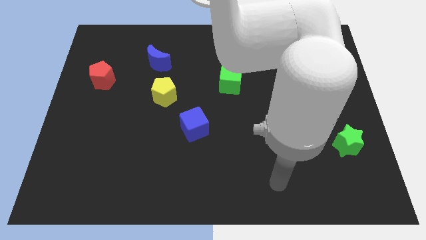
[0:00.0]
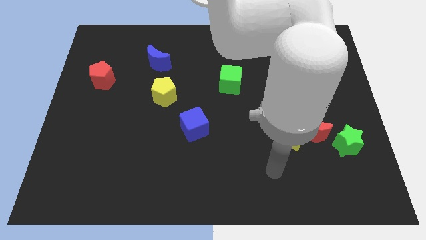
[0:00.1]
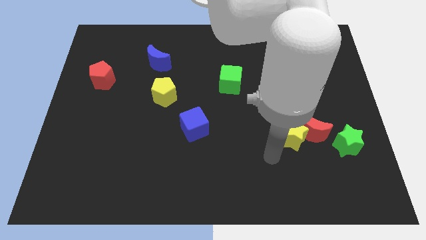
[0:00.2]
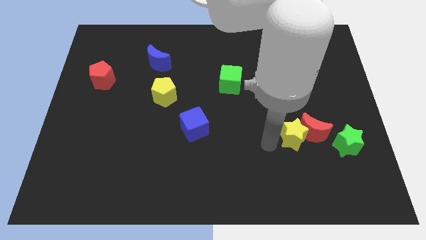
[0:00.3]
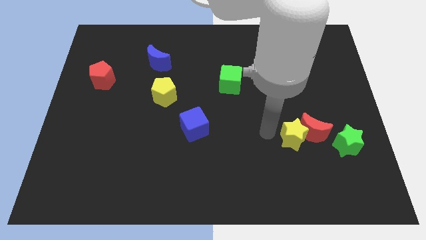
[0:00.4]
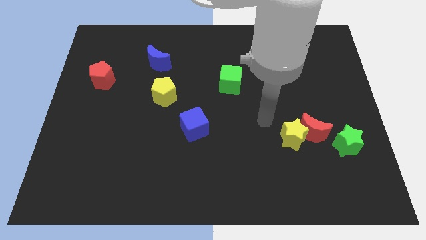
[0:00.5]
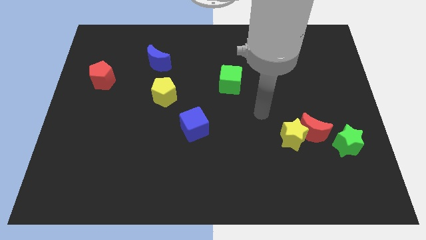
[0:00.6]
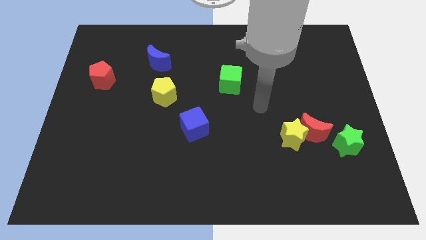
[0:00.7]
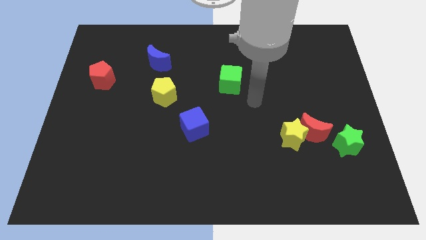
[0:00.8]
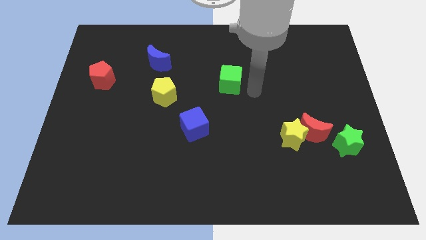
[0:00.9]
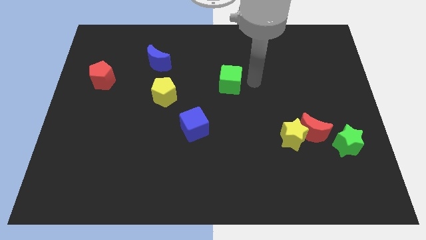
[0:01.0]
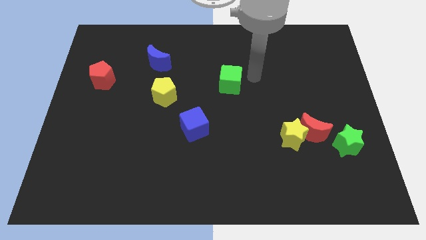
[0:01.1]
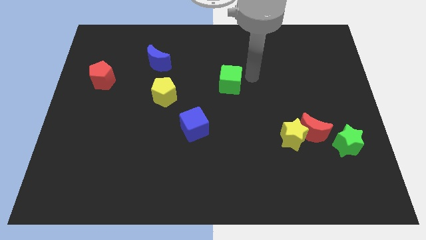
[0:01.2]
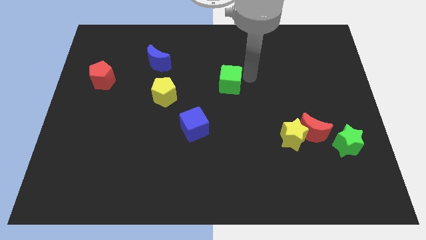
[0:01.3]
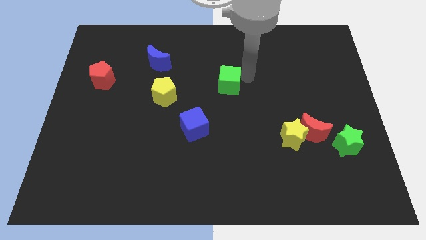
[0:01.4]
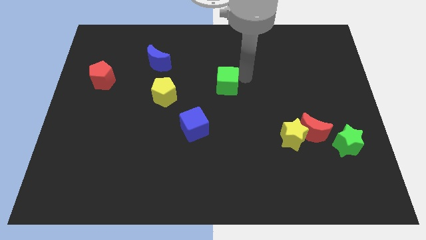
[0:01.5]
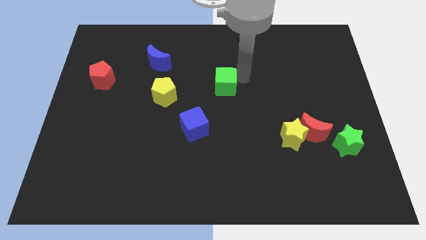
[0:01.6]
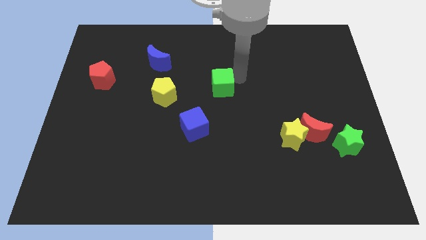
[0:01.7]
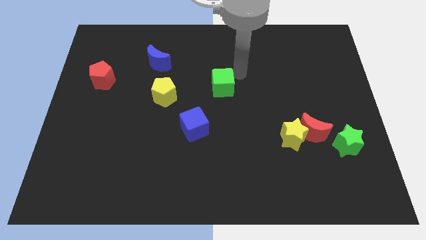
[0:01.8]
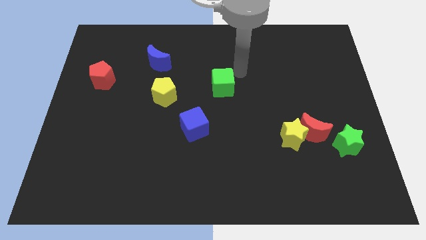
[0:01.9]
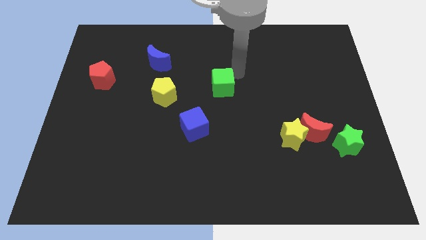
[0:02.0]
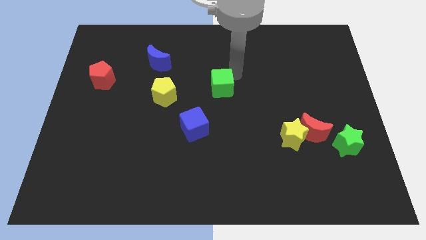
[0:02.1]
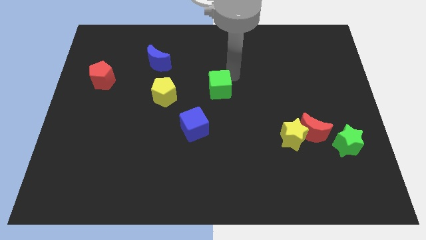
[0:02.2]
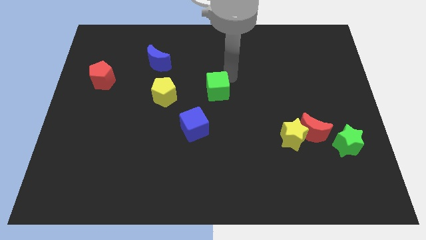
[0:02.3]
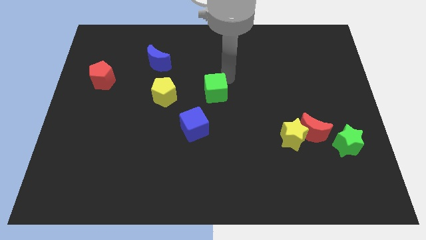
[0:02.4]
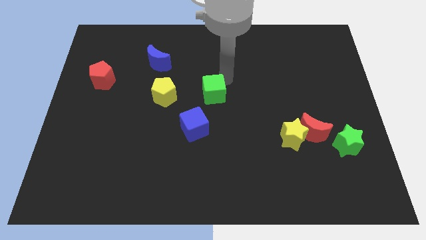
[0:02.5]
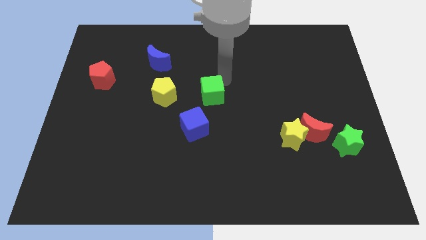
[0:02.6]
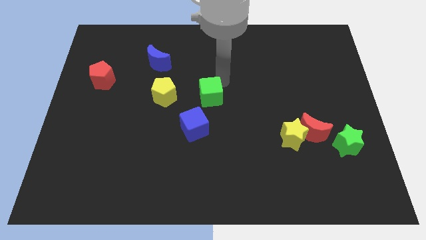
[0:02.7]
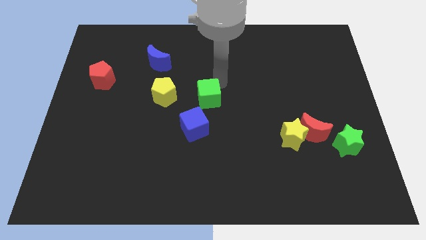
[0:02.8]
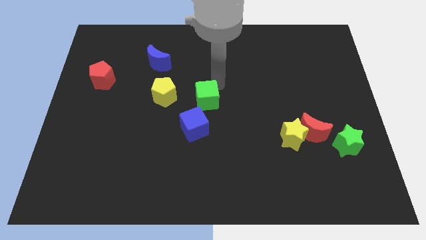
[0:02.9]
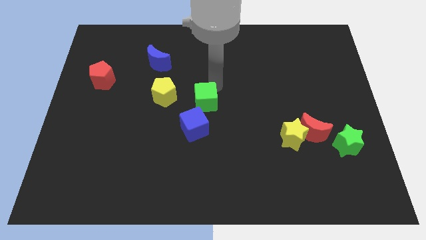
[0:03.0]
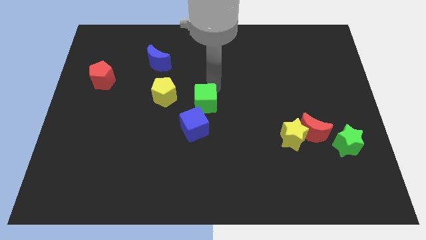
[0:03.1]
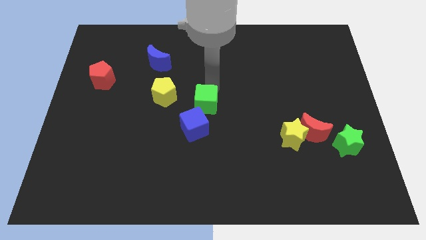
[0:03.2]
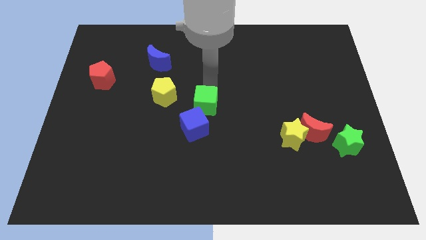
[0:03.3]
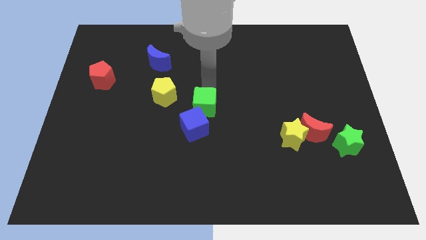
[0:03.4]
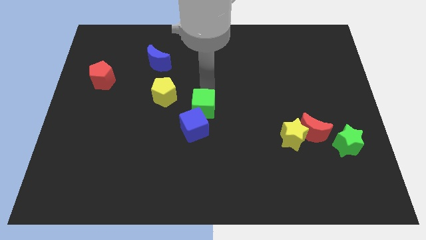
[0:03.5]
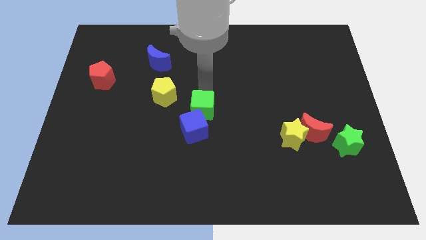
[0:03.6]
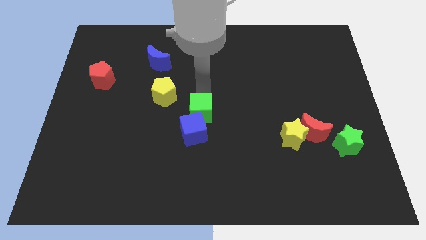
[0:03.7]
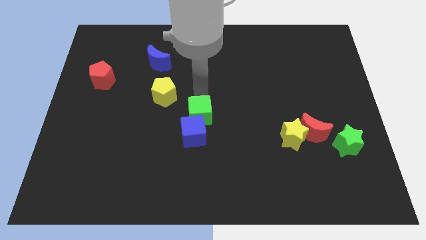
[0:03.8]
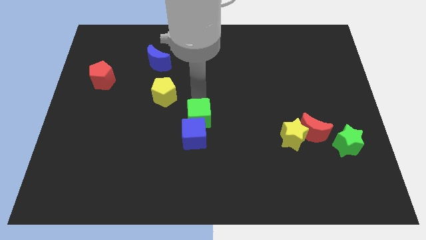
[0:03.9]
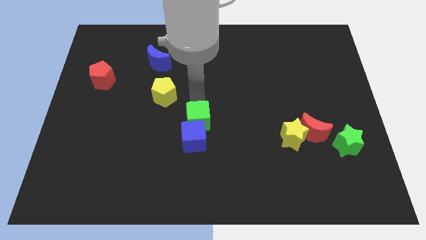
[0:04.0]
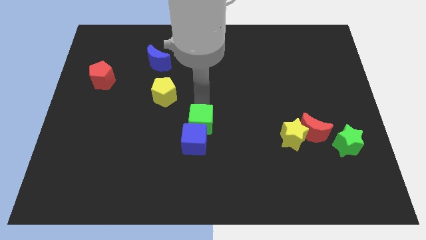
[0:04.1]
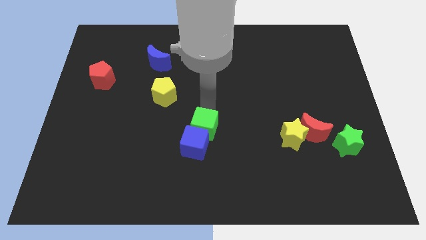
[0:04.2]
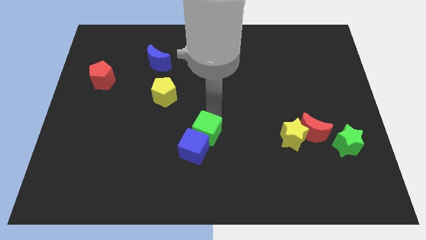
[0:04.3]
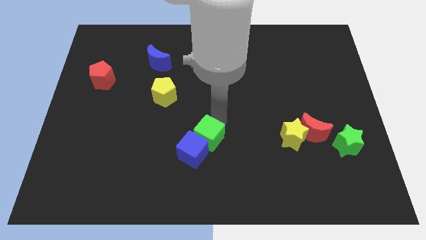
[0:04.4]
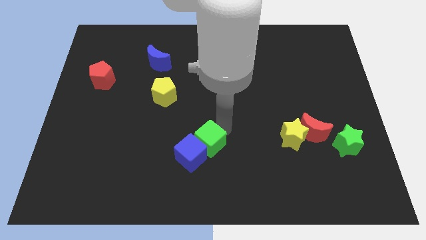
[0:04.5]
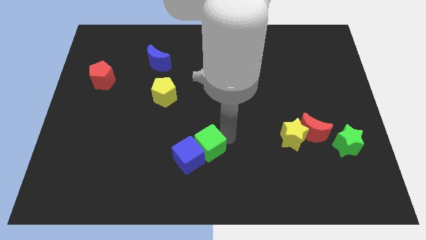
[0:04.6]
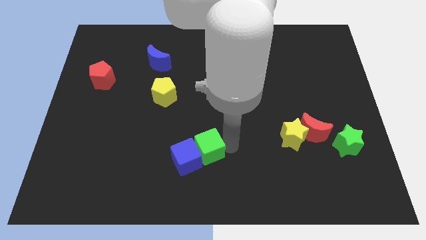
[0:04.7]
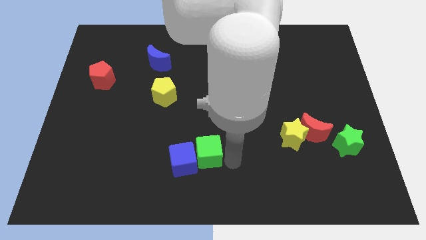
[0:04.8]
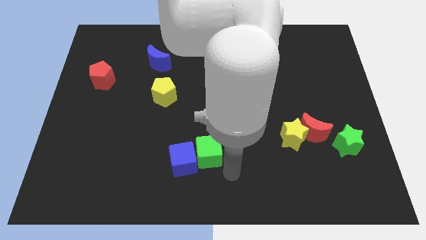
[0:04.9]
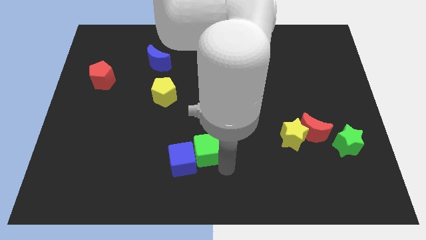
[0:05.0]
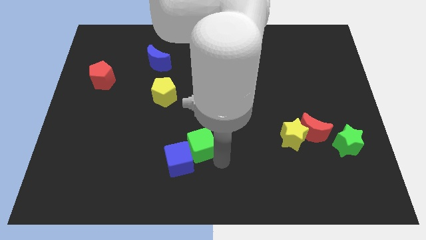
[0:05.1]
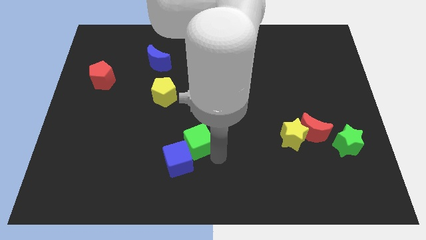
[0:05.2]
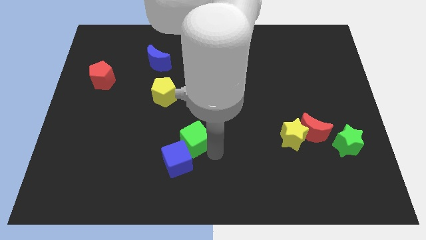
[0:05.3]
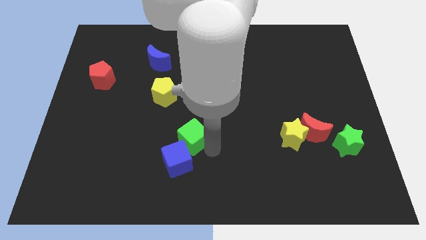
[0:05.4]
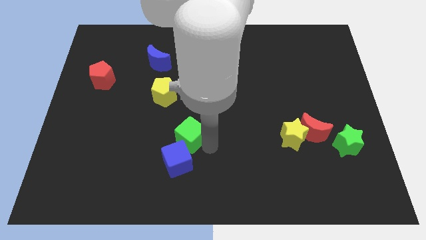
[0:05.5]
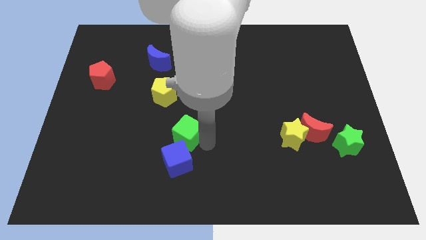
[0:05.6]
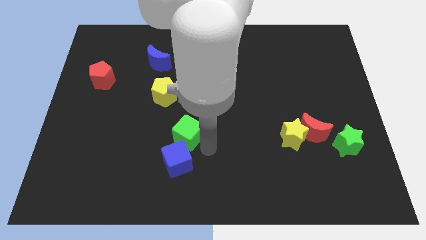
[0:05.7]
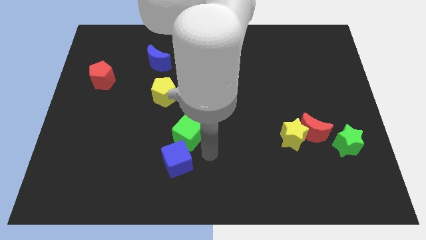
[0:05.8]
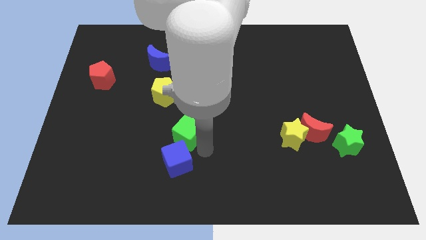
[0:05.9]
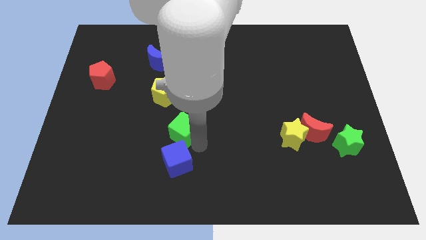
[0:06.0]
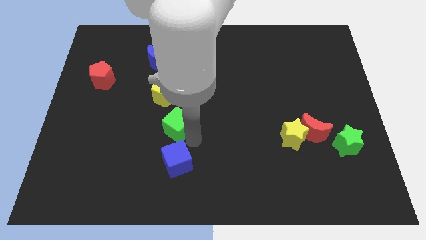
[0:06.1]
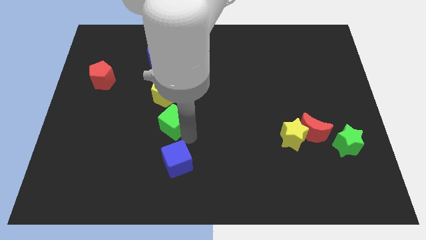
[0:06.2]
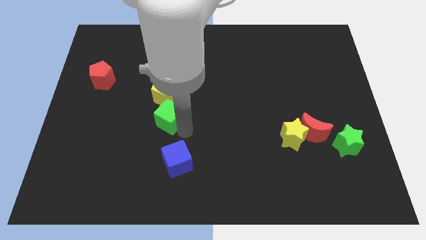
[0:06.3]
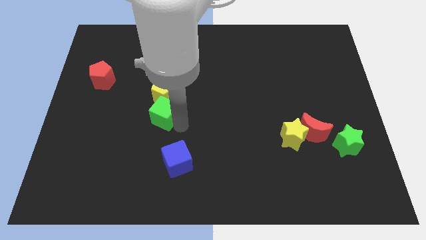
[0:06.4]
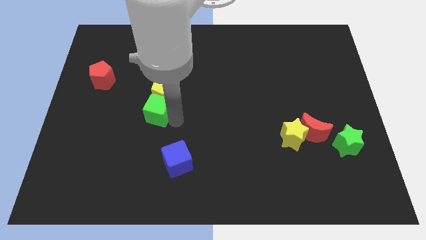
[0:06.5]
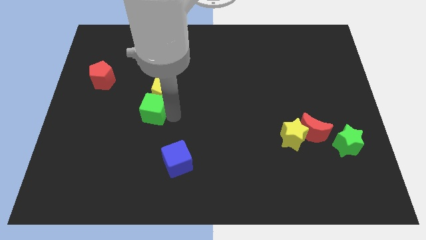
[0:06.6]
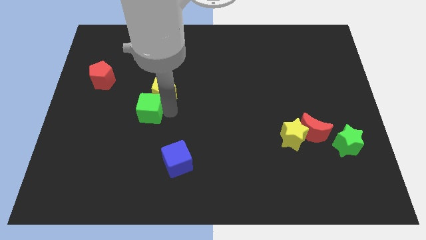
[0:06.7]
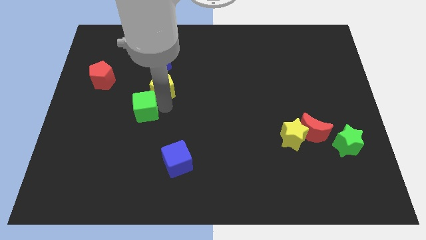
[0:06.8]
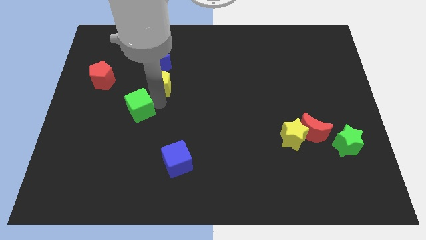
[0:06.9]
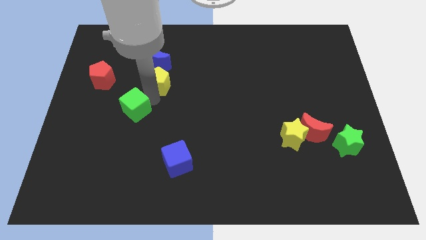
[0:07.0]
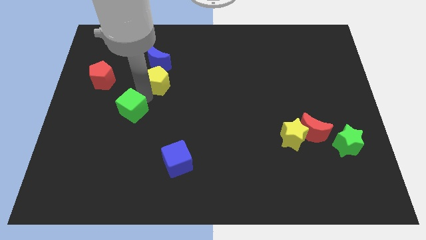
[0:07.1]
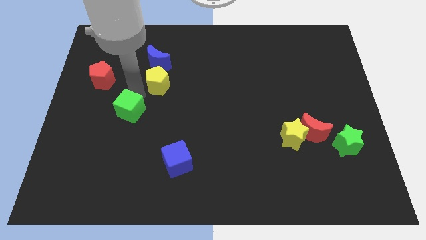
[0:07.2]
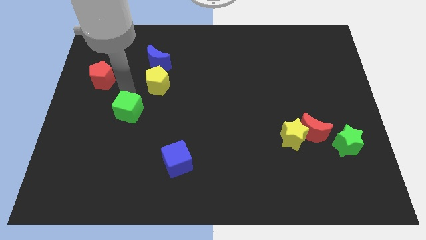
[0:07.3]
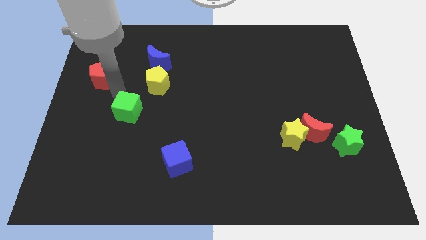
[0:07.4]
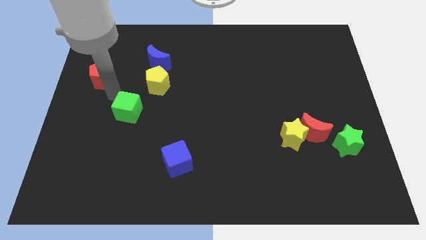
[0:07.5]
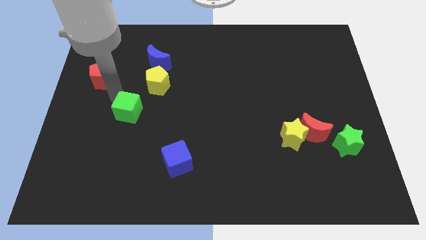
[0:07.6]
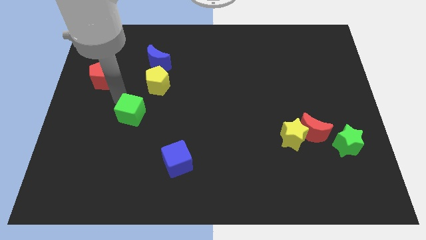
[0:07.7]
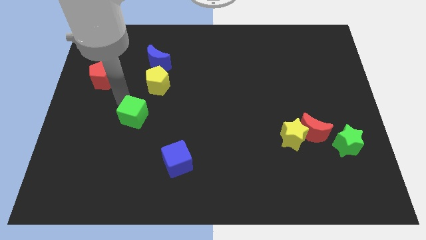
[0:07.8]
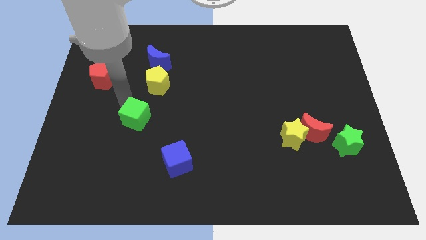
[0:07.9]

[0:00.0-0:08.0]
slide the green cube down and then to the left
